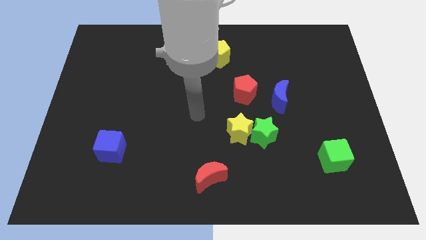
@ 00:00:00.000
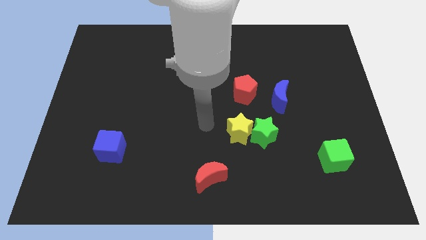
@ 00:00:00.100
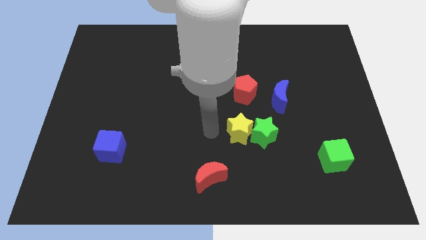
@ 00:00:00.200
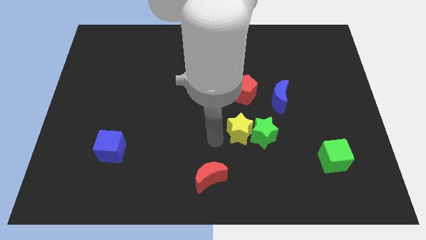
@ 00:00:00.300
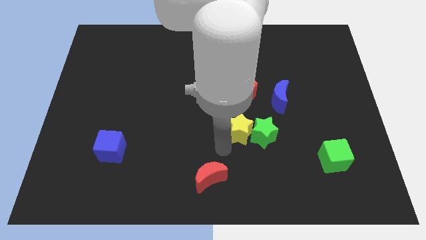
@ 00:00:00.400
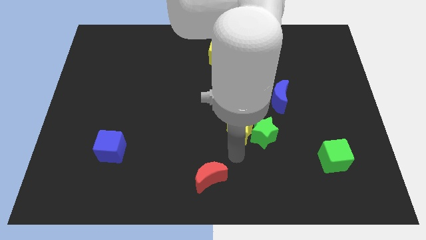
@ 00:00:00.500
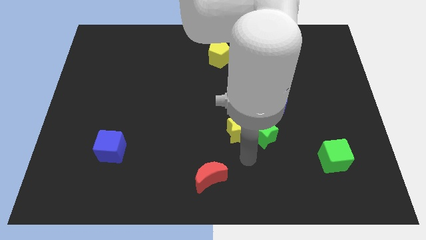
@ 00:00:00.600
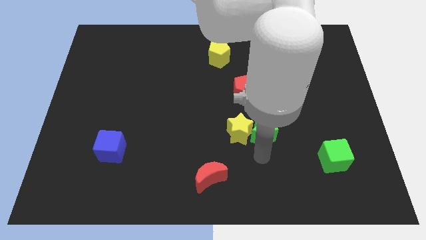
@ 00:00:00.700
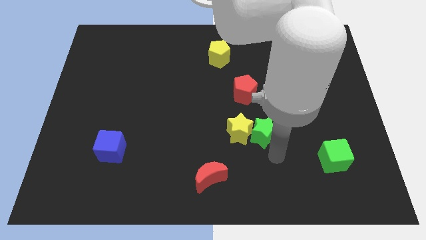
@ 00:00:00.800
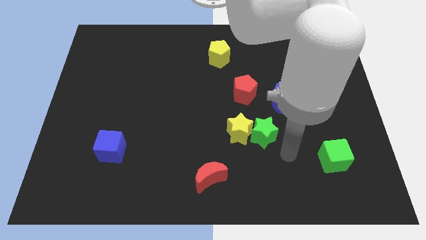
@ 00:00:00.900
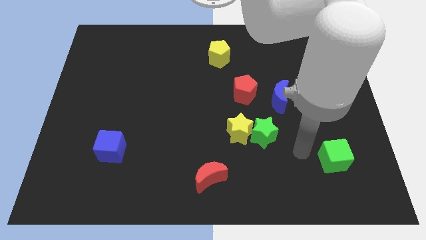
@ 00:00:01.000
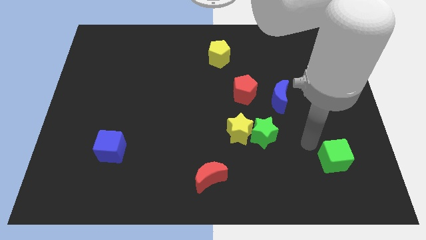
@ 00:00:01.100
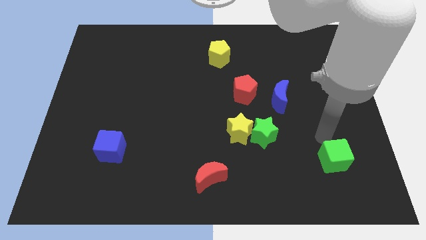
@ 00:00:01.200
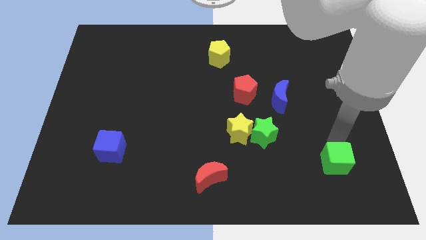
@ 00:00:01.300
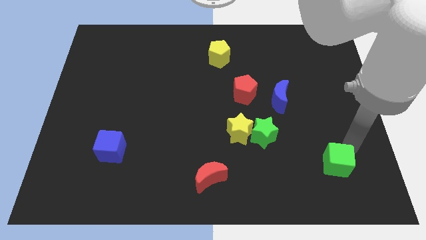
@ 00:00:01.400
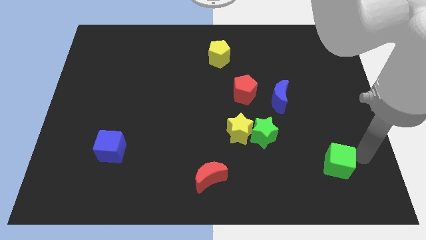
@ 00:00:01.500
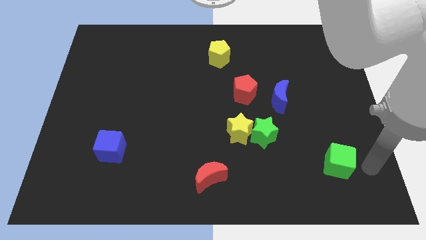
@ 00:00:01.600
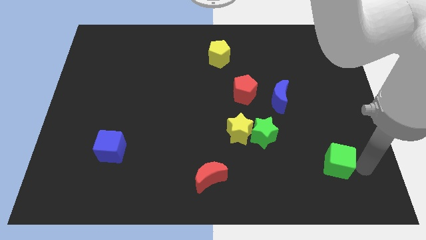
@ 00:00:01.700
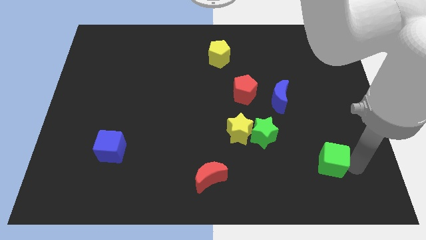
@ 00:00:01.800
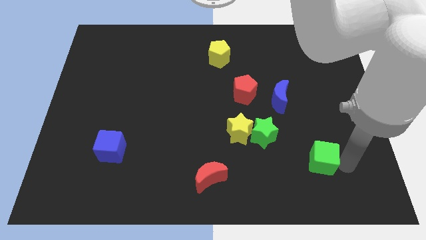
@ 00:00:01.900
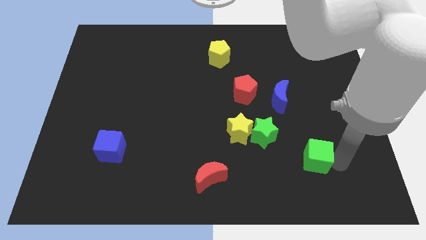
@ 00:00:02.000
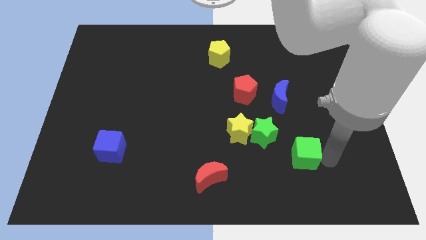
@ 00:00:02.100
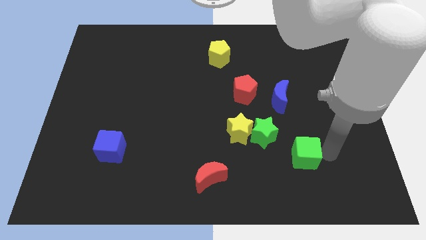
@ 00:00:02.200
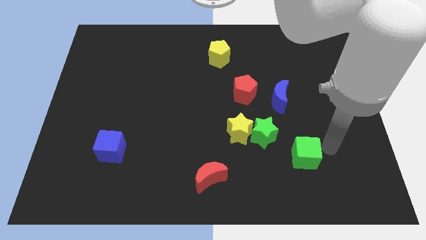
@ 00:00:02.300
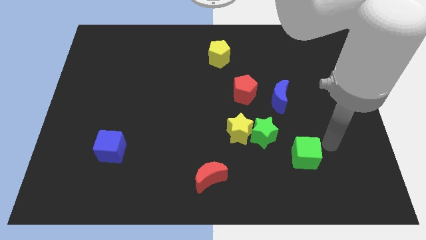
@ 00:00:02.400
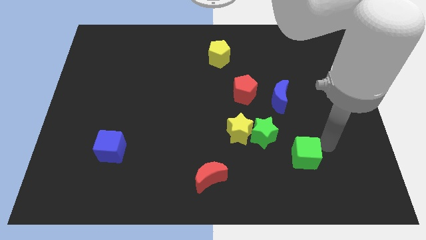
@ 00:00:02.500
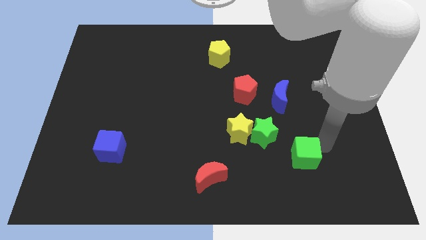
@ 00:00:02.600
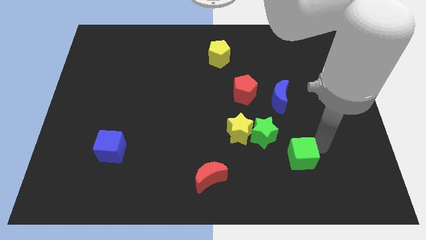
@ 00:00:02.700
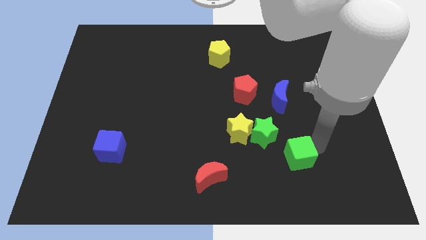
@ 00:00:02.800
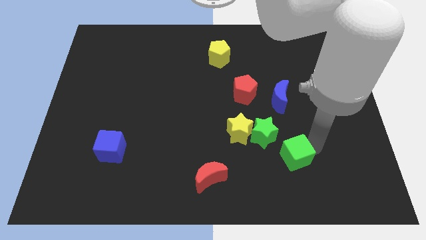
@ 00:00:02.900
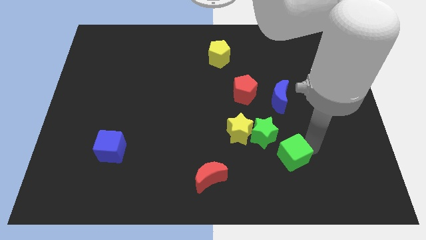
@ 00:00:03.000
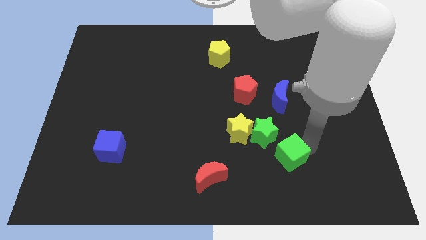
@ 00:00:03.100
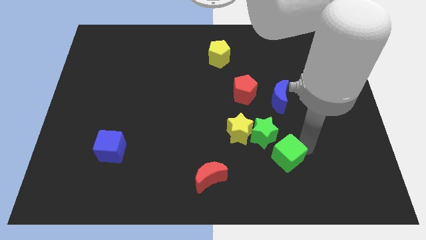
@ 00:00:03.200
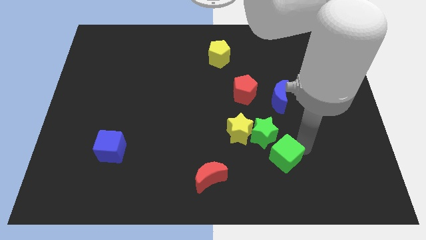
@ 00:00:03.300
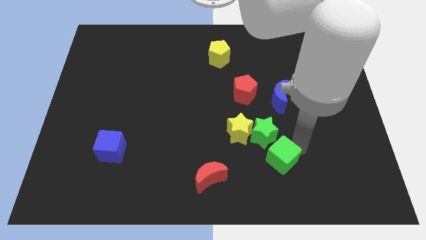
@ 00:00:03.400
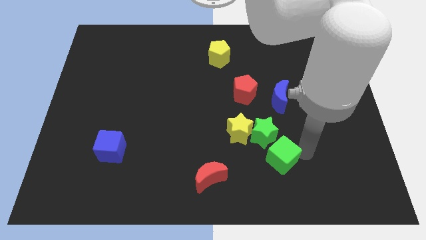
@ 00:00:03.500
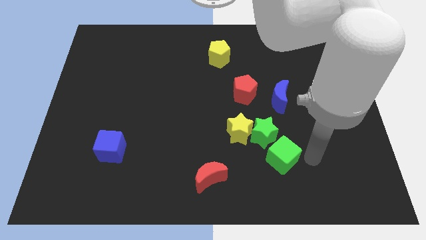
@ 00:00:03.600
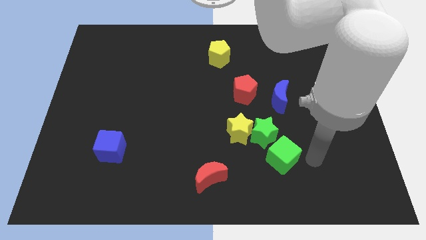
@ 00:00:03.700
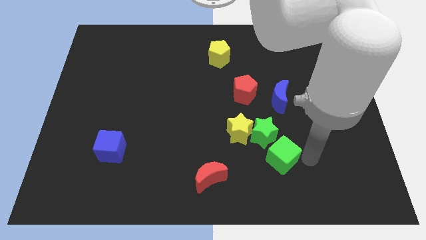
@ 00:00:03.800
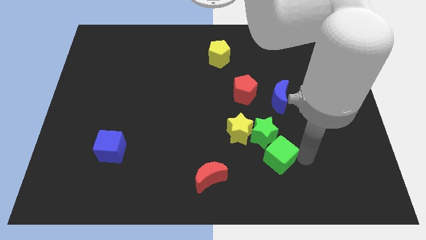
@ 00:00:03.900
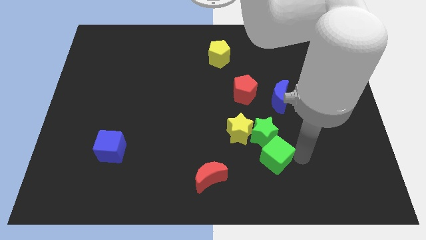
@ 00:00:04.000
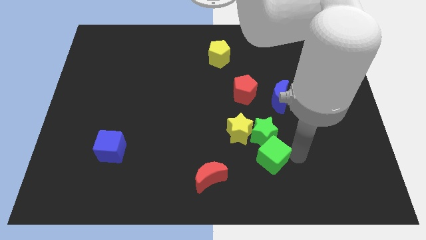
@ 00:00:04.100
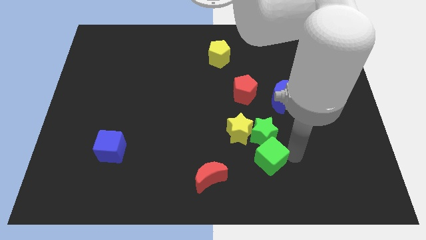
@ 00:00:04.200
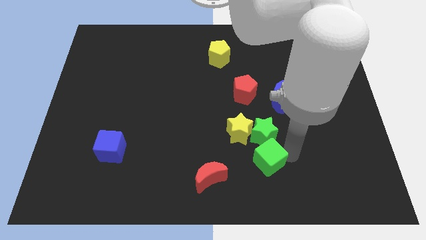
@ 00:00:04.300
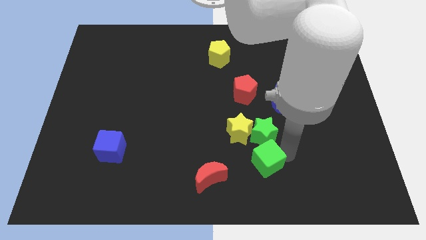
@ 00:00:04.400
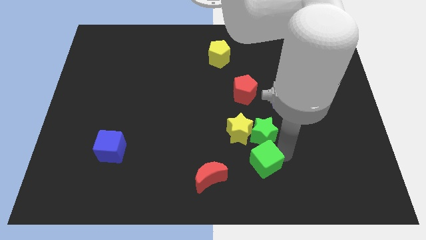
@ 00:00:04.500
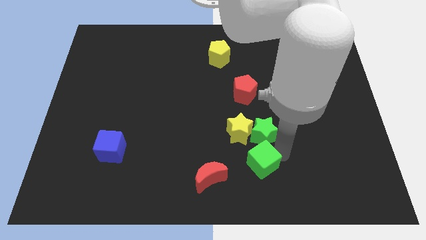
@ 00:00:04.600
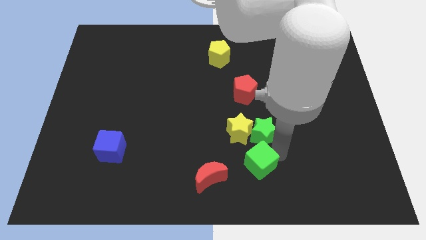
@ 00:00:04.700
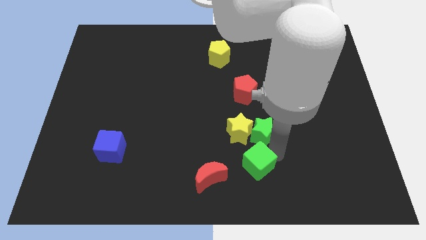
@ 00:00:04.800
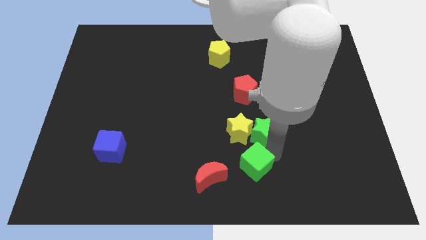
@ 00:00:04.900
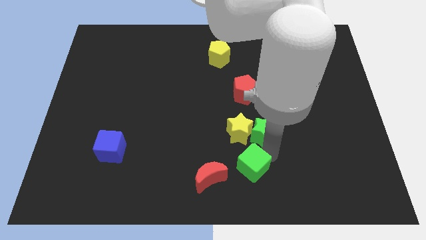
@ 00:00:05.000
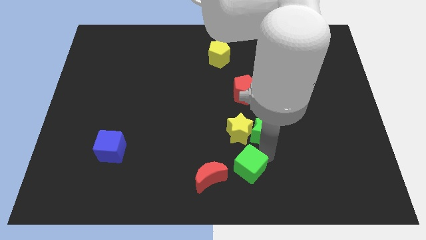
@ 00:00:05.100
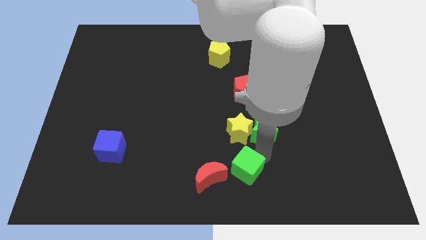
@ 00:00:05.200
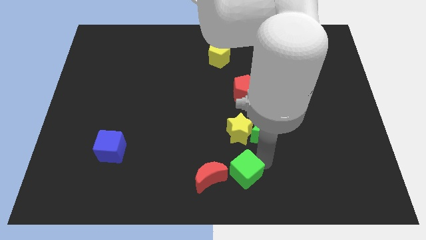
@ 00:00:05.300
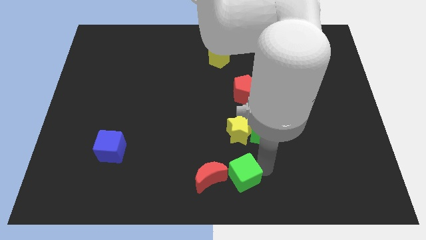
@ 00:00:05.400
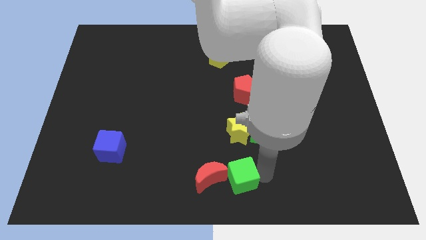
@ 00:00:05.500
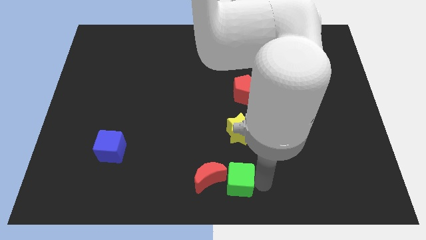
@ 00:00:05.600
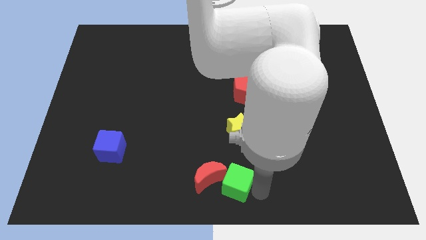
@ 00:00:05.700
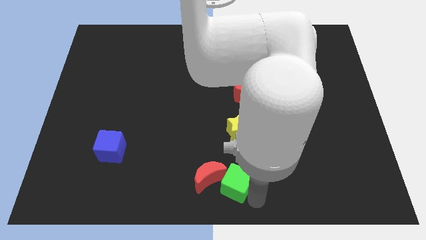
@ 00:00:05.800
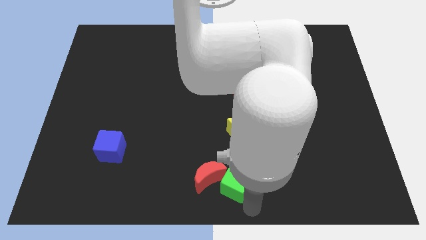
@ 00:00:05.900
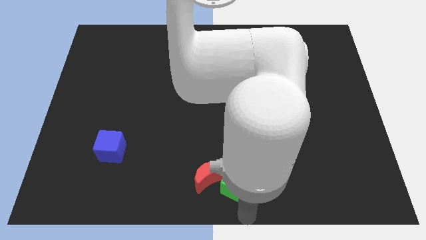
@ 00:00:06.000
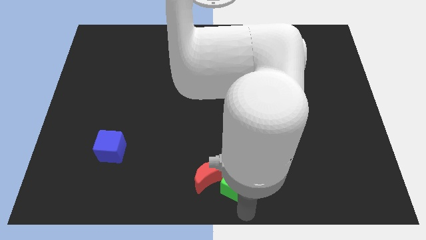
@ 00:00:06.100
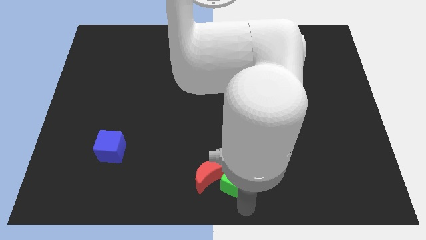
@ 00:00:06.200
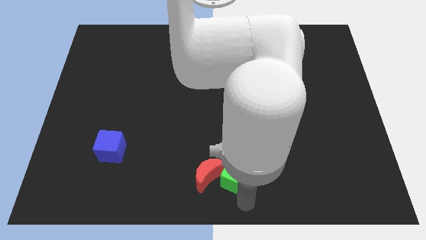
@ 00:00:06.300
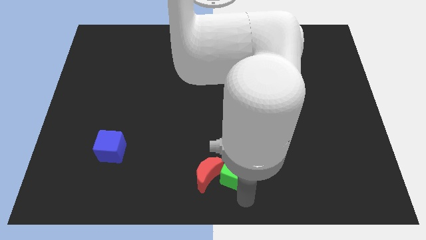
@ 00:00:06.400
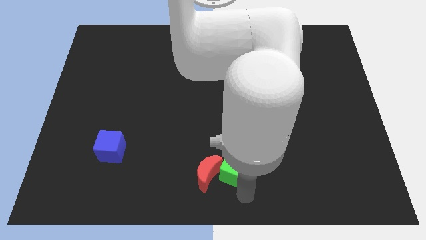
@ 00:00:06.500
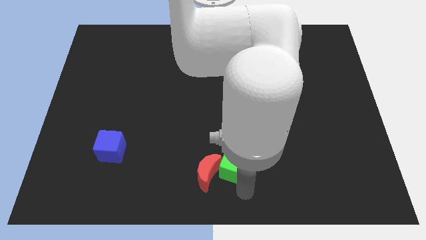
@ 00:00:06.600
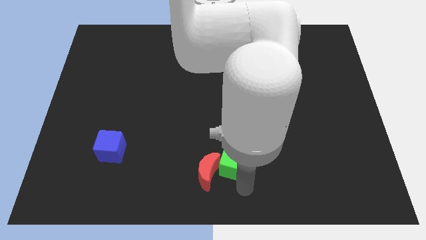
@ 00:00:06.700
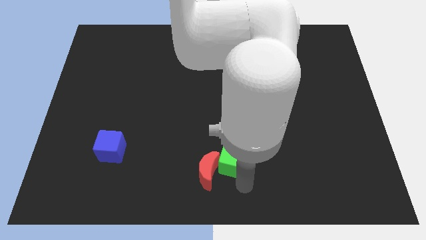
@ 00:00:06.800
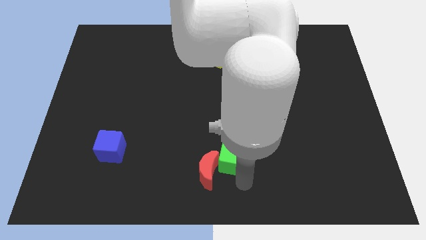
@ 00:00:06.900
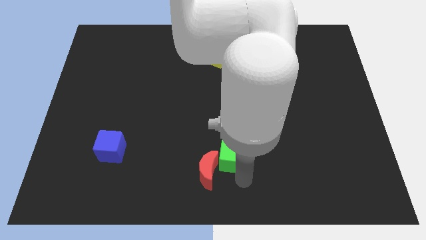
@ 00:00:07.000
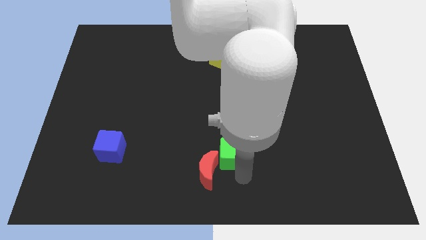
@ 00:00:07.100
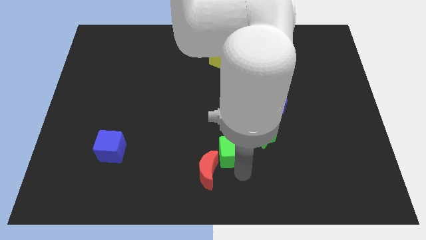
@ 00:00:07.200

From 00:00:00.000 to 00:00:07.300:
slide the green cube to the left of the green star

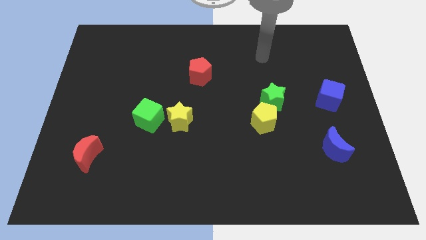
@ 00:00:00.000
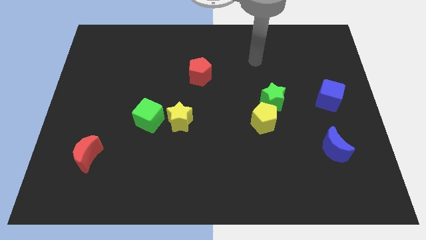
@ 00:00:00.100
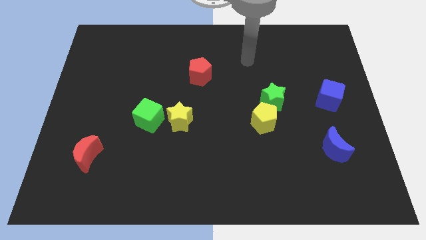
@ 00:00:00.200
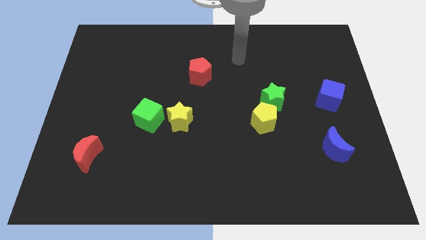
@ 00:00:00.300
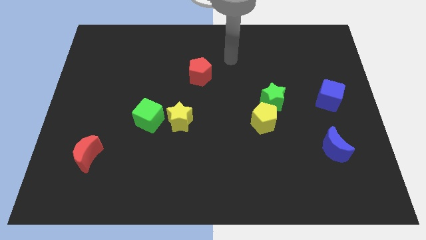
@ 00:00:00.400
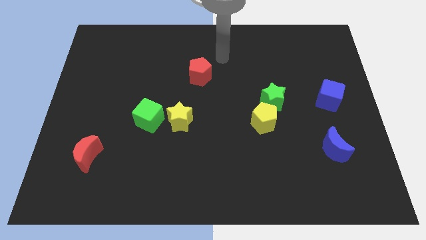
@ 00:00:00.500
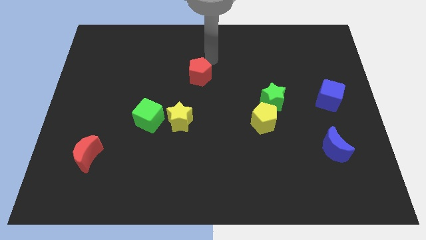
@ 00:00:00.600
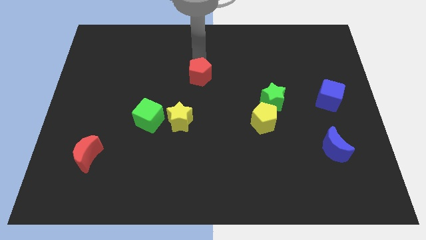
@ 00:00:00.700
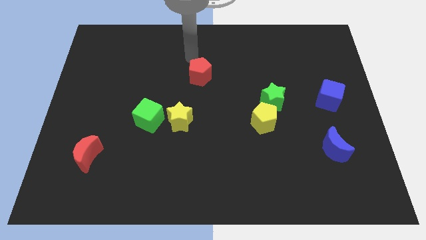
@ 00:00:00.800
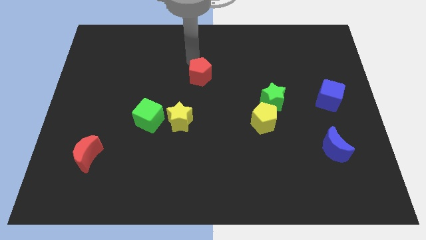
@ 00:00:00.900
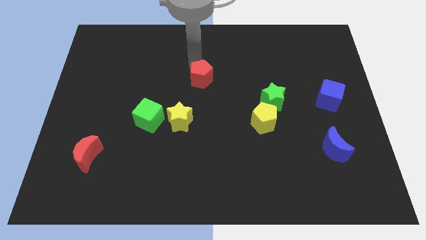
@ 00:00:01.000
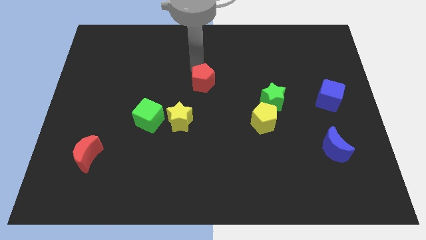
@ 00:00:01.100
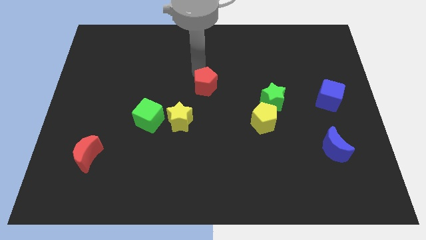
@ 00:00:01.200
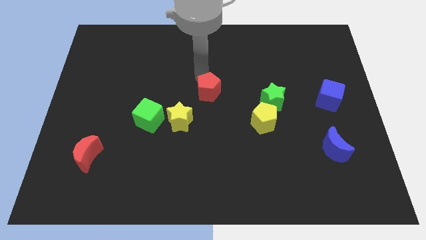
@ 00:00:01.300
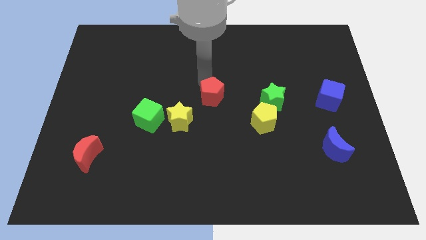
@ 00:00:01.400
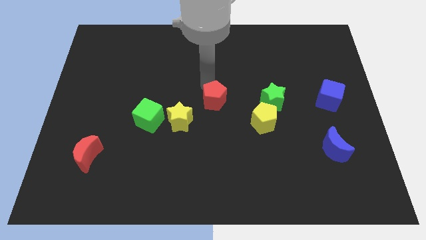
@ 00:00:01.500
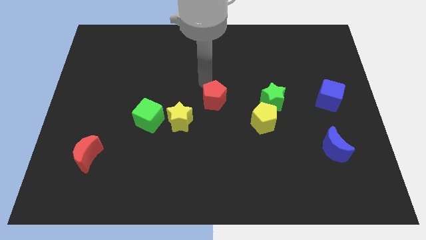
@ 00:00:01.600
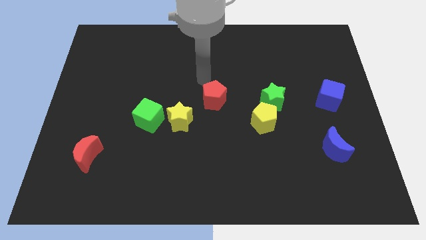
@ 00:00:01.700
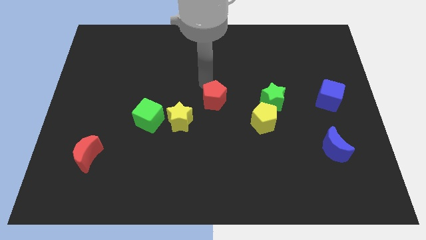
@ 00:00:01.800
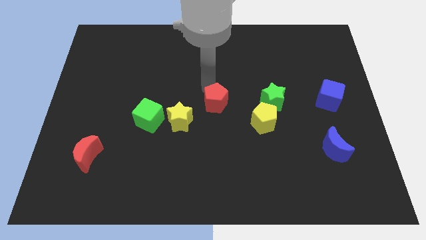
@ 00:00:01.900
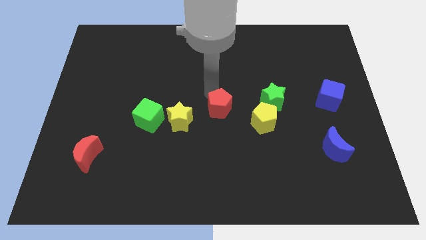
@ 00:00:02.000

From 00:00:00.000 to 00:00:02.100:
move the red pentagon to the right side of the yellow star
